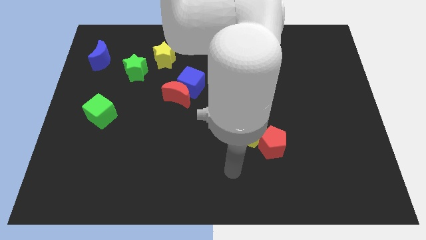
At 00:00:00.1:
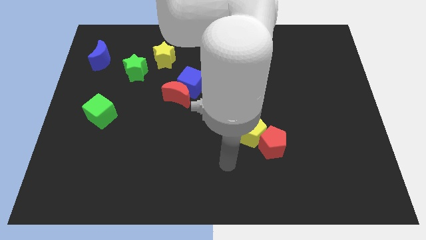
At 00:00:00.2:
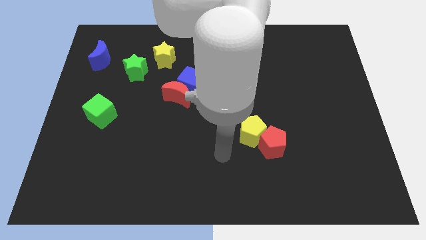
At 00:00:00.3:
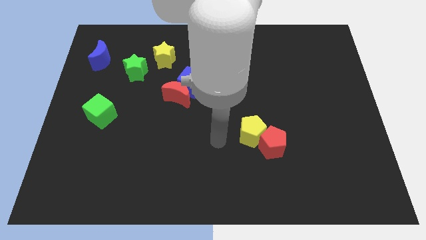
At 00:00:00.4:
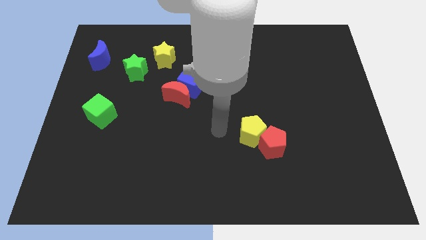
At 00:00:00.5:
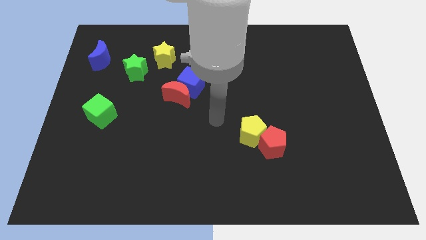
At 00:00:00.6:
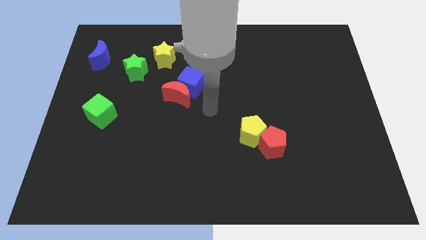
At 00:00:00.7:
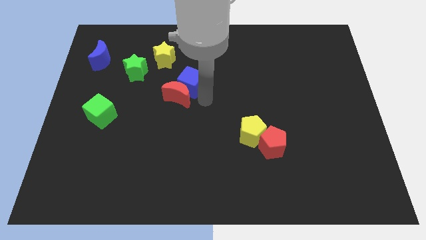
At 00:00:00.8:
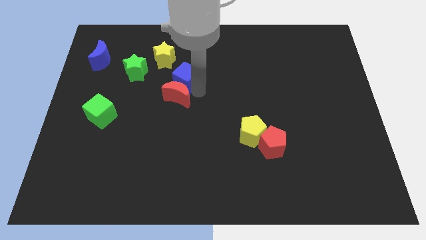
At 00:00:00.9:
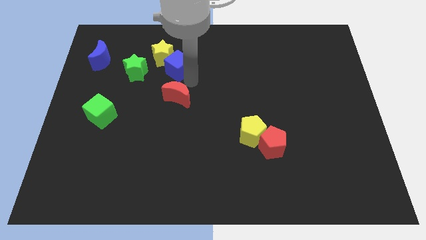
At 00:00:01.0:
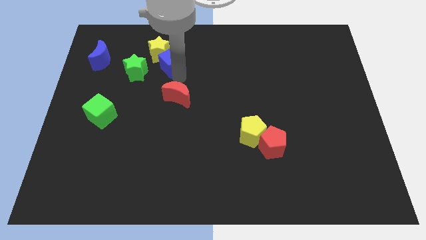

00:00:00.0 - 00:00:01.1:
pull the red moon apart from the blue cube

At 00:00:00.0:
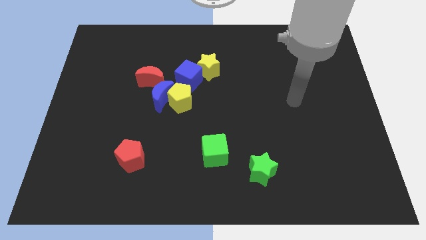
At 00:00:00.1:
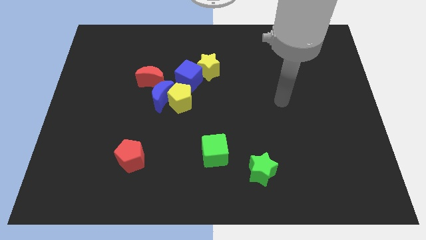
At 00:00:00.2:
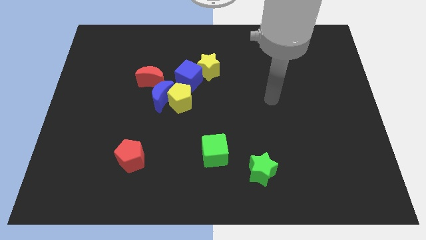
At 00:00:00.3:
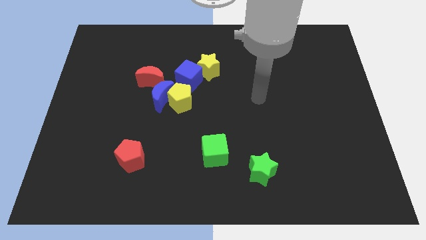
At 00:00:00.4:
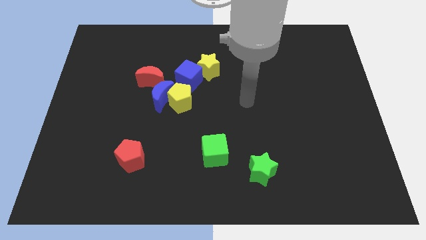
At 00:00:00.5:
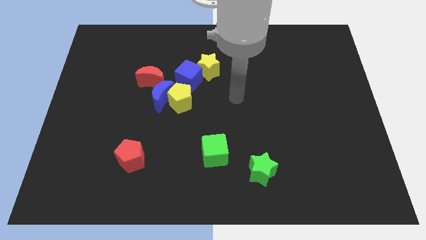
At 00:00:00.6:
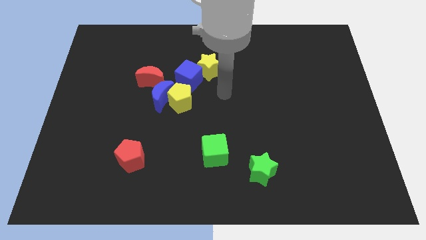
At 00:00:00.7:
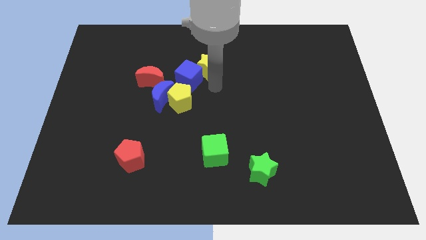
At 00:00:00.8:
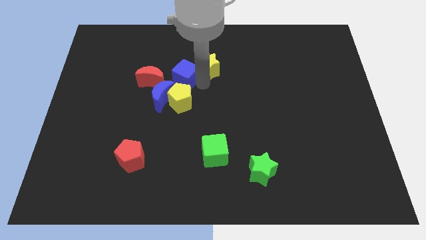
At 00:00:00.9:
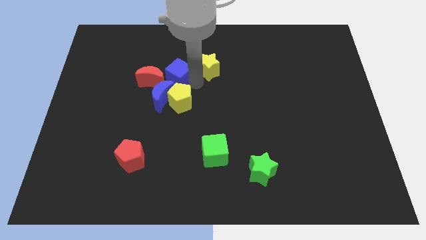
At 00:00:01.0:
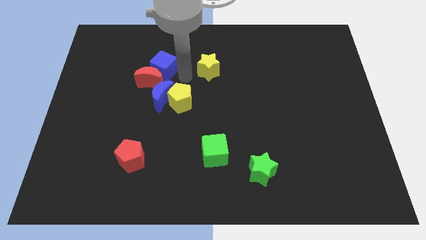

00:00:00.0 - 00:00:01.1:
separate the yellow star from the blue cube

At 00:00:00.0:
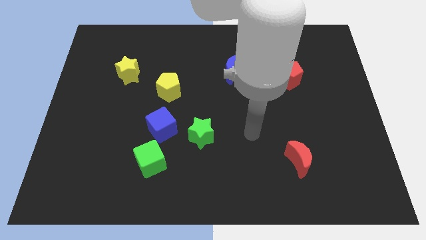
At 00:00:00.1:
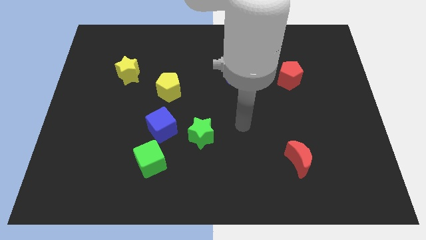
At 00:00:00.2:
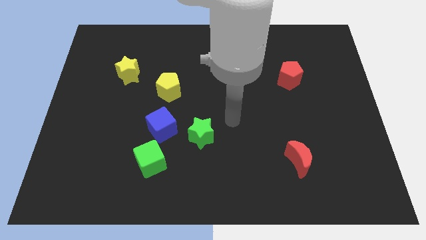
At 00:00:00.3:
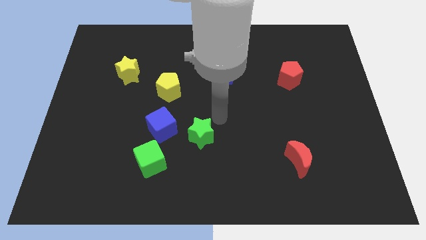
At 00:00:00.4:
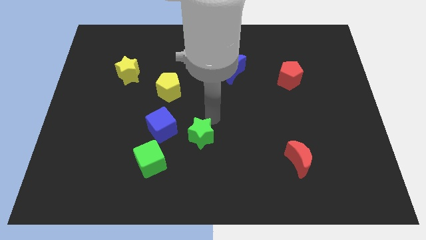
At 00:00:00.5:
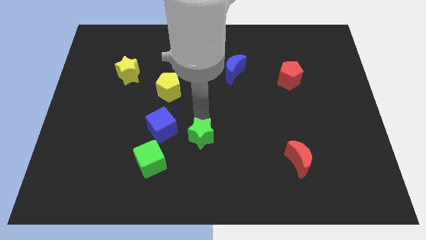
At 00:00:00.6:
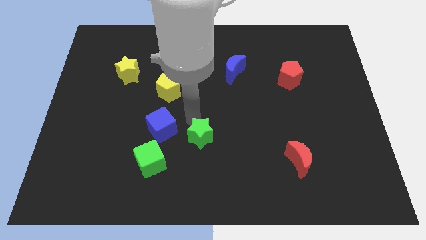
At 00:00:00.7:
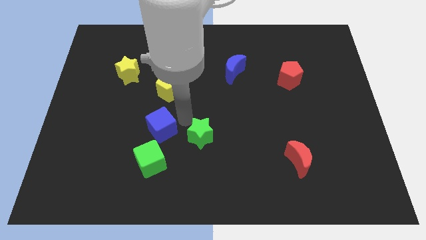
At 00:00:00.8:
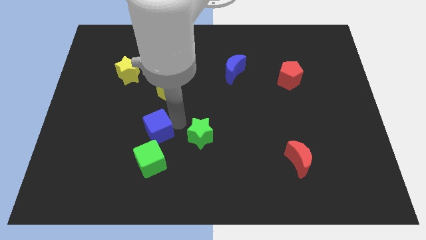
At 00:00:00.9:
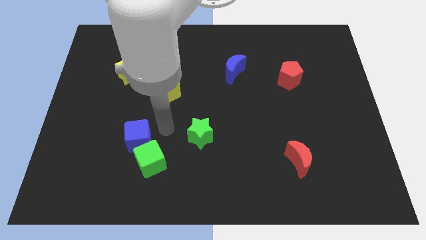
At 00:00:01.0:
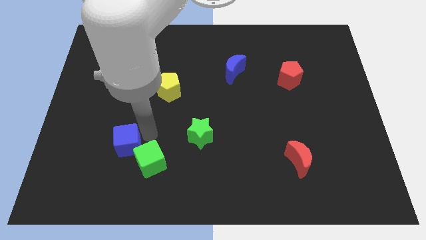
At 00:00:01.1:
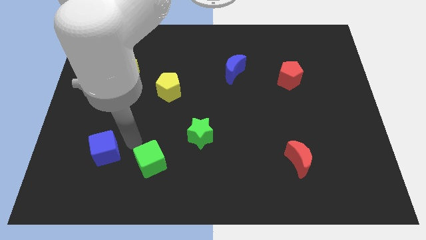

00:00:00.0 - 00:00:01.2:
move the green cube away from the blue cube

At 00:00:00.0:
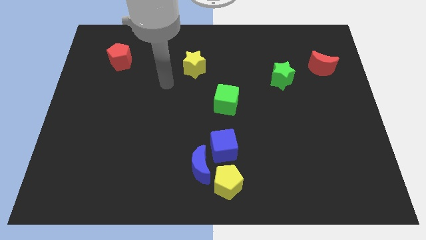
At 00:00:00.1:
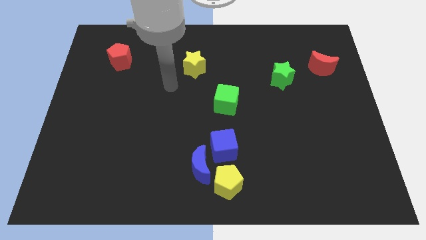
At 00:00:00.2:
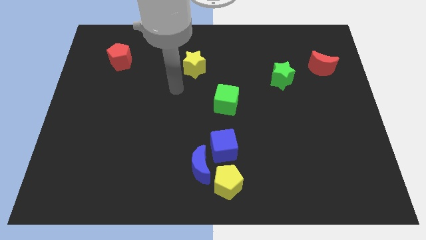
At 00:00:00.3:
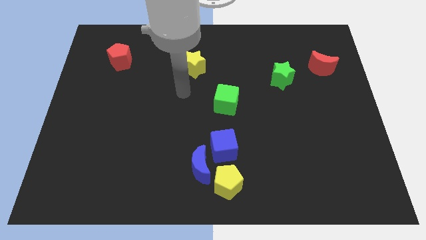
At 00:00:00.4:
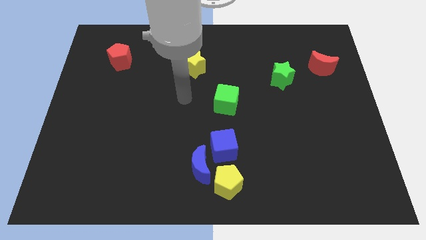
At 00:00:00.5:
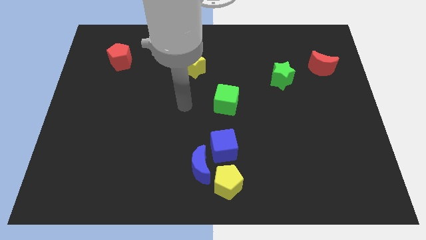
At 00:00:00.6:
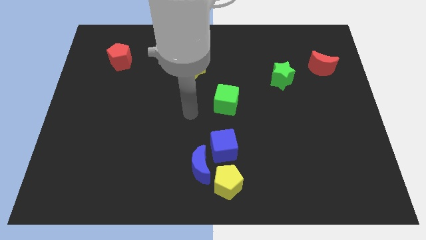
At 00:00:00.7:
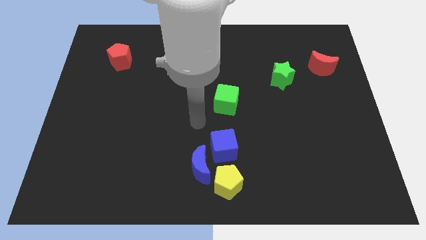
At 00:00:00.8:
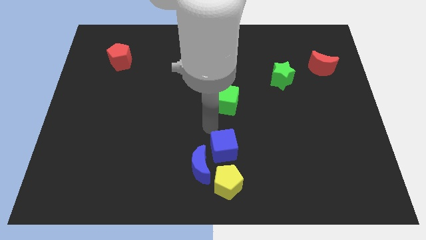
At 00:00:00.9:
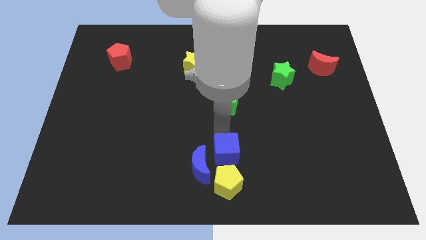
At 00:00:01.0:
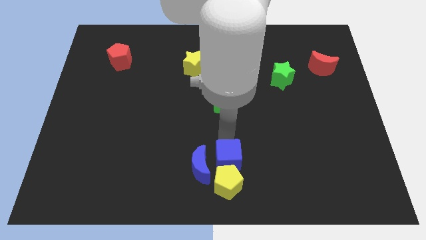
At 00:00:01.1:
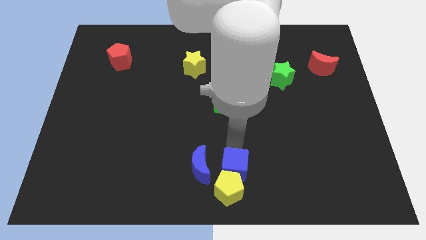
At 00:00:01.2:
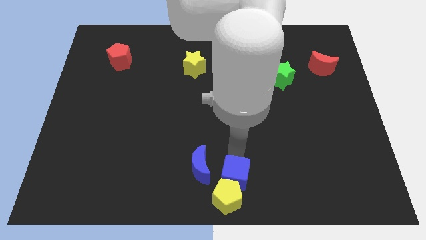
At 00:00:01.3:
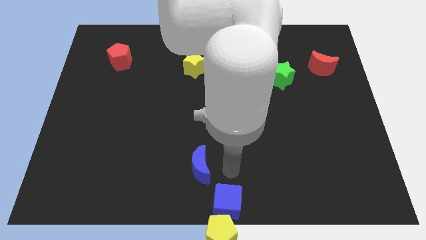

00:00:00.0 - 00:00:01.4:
separate the blue moon from the yellow pentagon and blue cube

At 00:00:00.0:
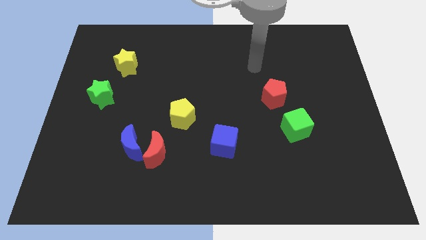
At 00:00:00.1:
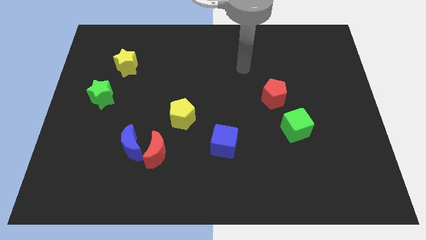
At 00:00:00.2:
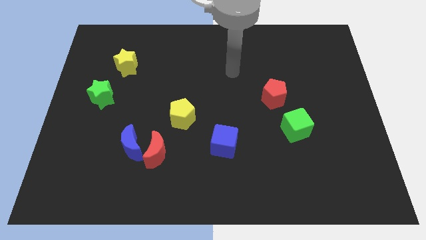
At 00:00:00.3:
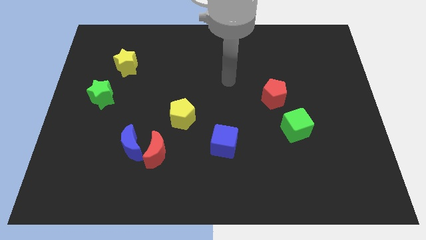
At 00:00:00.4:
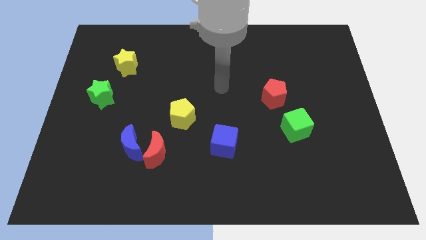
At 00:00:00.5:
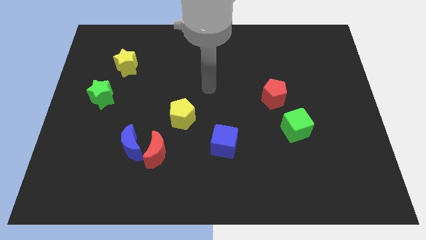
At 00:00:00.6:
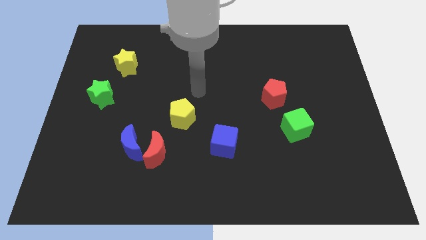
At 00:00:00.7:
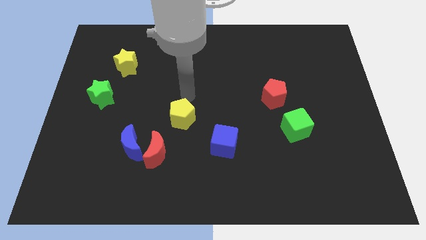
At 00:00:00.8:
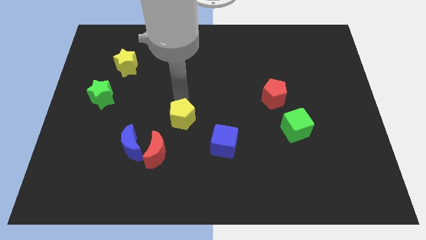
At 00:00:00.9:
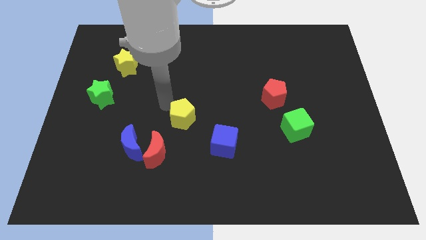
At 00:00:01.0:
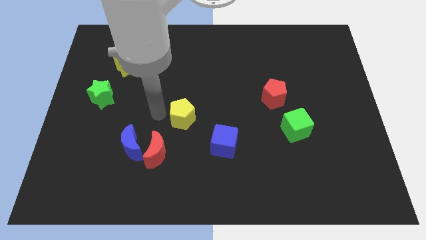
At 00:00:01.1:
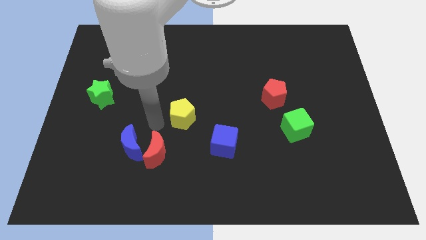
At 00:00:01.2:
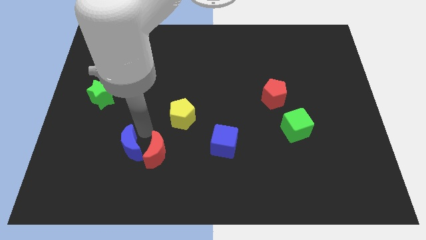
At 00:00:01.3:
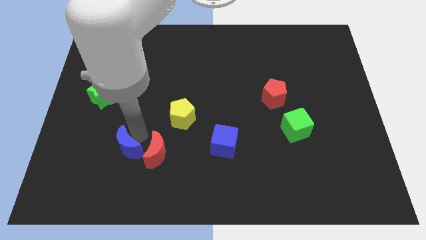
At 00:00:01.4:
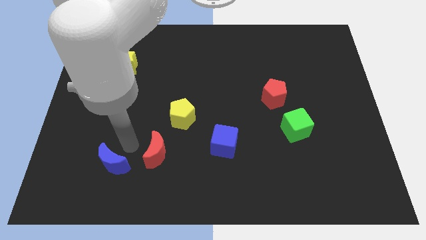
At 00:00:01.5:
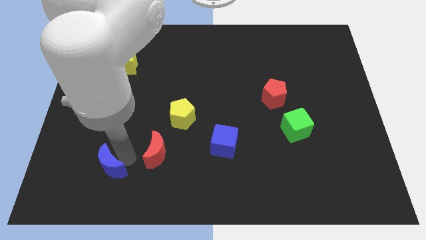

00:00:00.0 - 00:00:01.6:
move the red moon away from the blue moon

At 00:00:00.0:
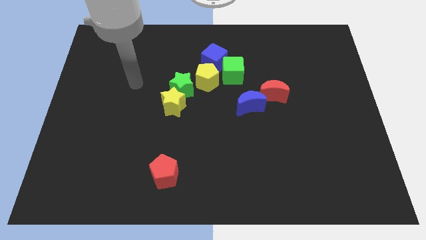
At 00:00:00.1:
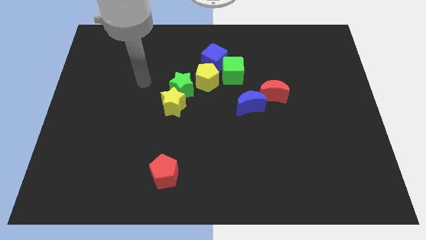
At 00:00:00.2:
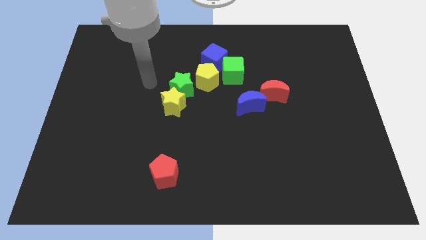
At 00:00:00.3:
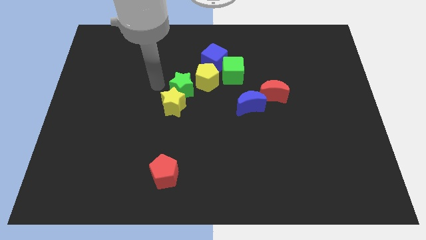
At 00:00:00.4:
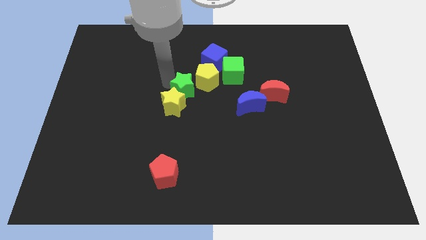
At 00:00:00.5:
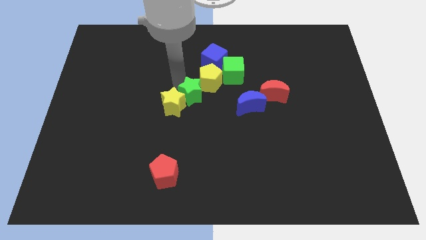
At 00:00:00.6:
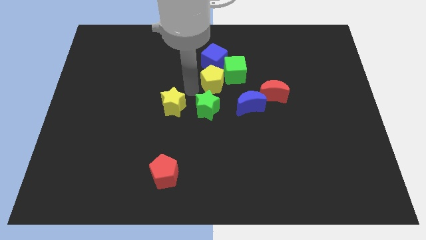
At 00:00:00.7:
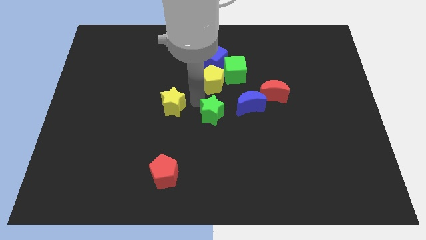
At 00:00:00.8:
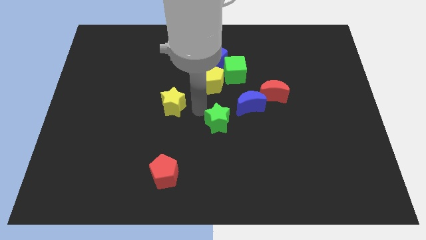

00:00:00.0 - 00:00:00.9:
pull the yellow star apart from the green star

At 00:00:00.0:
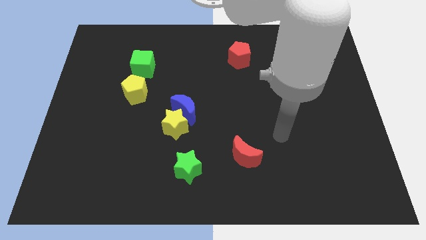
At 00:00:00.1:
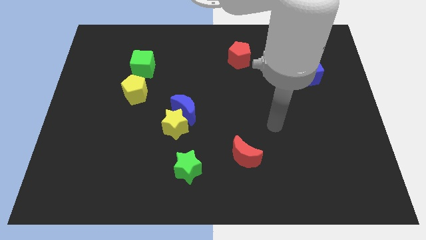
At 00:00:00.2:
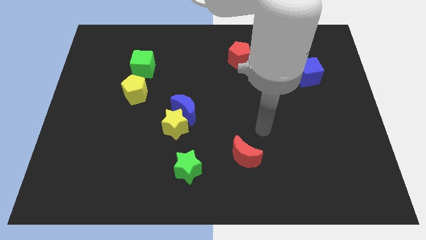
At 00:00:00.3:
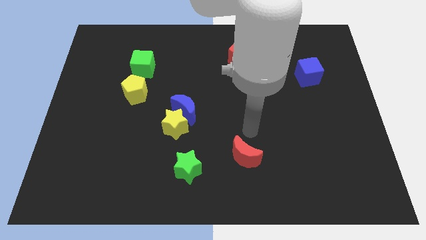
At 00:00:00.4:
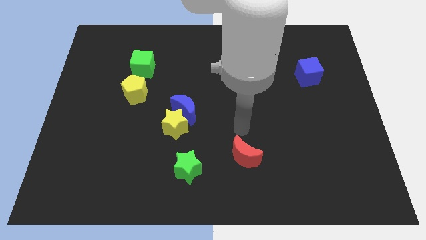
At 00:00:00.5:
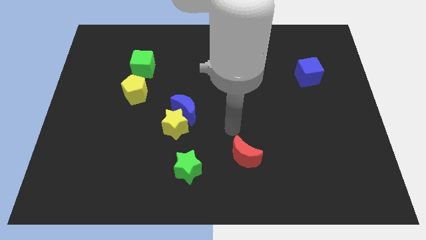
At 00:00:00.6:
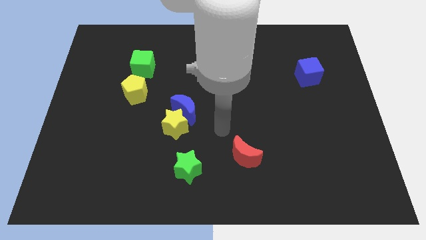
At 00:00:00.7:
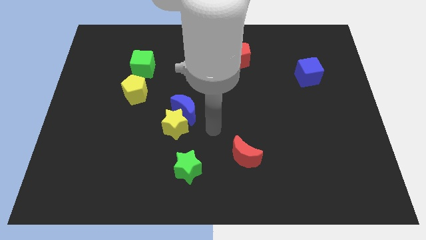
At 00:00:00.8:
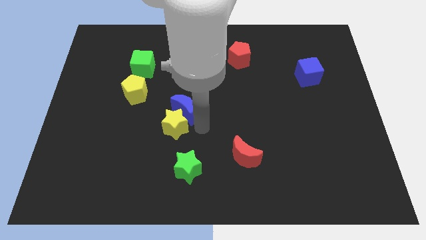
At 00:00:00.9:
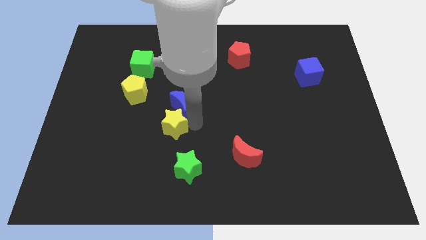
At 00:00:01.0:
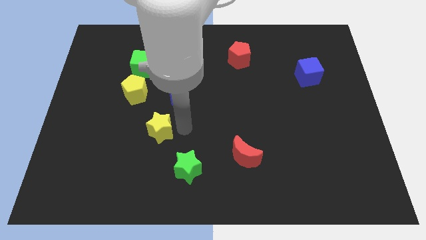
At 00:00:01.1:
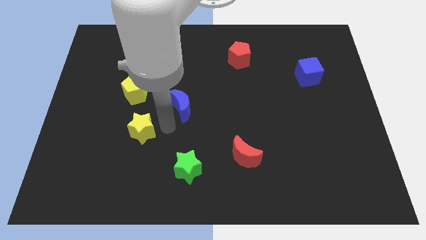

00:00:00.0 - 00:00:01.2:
move the blue moon away from the yellow star

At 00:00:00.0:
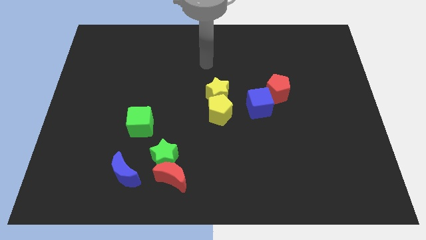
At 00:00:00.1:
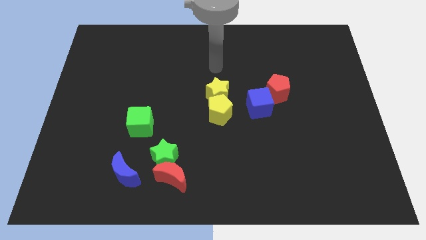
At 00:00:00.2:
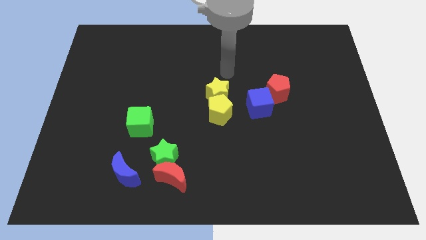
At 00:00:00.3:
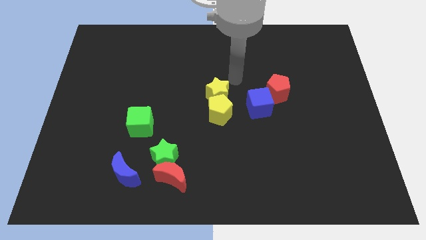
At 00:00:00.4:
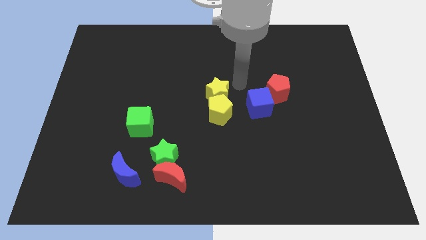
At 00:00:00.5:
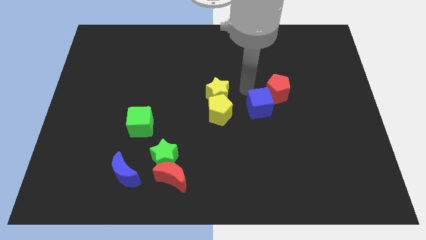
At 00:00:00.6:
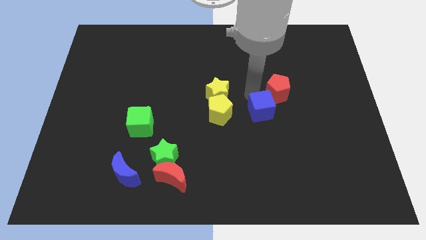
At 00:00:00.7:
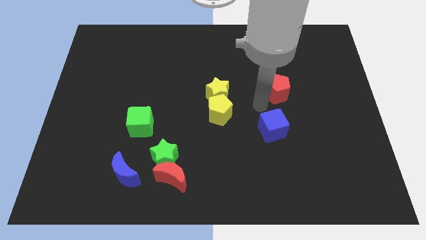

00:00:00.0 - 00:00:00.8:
pull the red pentagon apart from the blue cube
